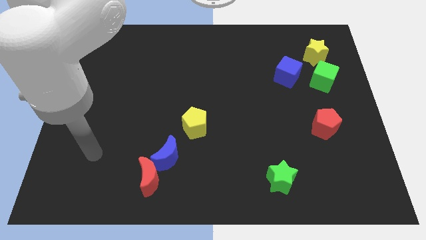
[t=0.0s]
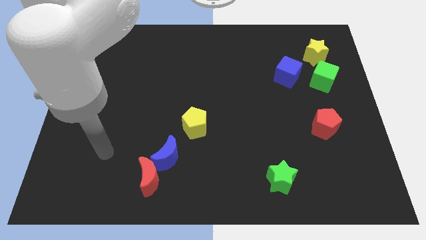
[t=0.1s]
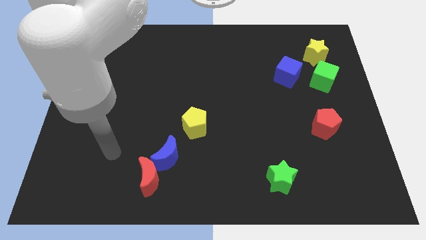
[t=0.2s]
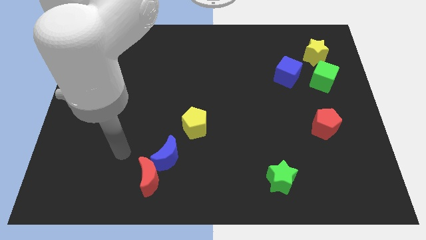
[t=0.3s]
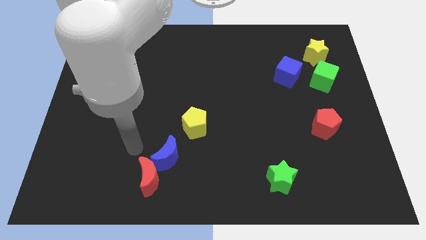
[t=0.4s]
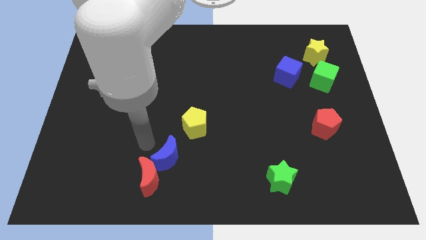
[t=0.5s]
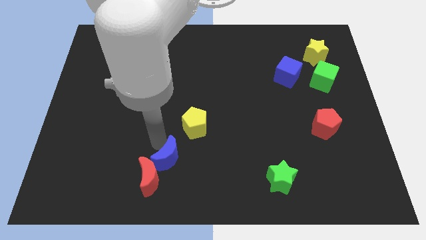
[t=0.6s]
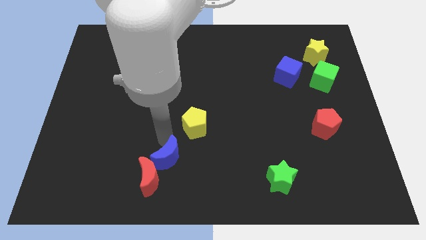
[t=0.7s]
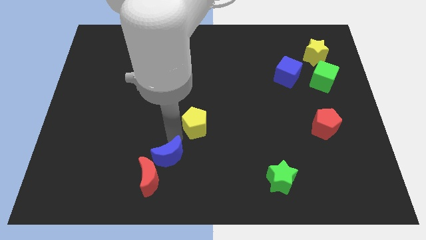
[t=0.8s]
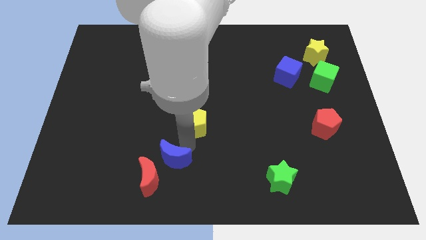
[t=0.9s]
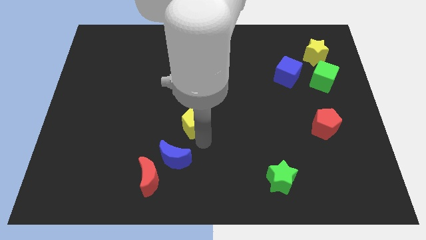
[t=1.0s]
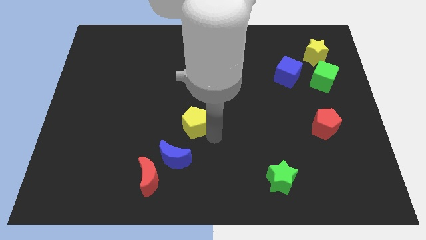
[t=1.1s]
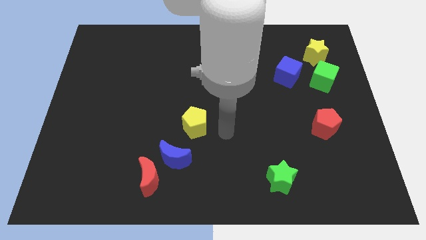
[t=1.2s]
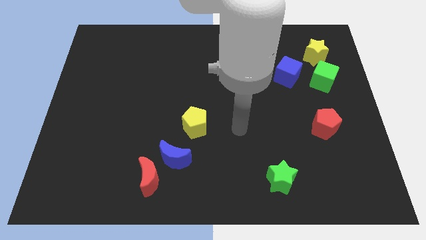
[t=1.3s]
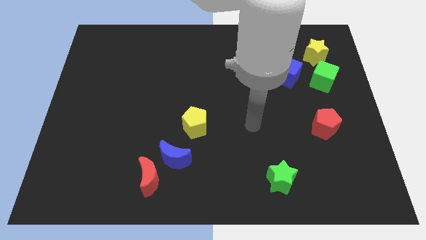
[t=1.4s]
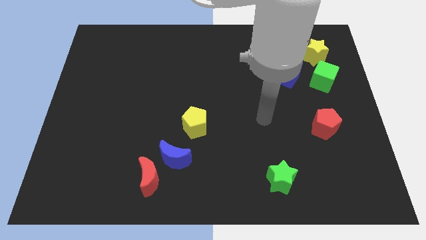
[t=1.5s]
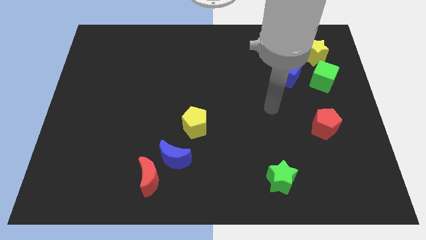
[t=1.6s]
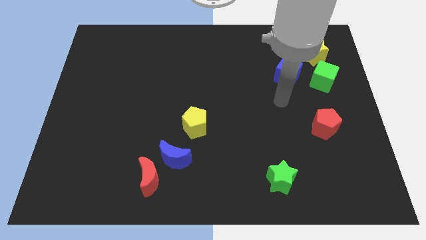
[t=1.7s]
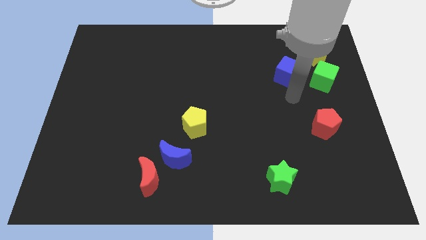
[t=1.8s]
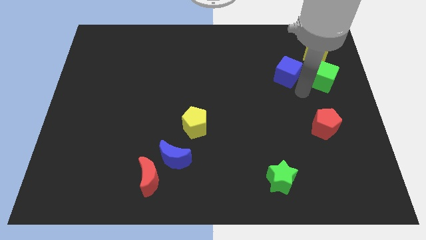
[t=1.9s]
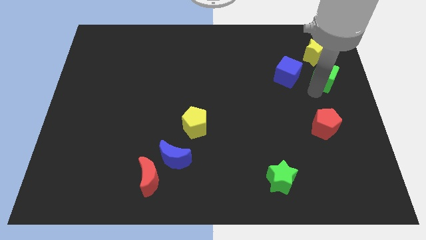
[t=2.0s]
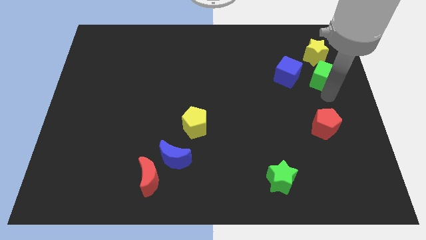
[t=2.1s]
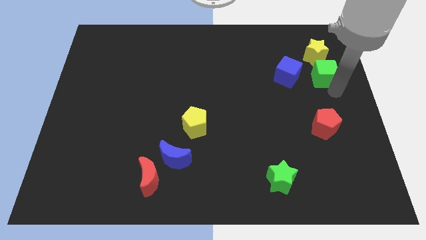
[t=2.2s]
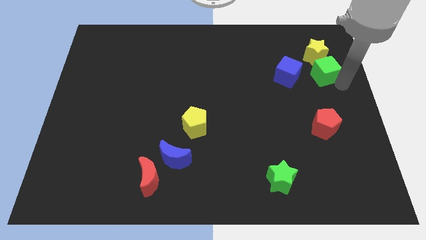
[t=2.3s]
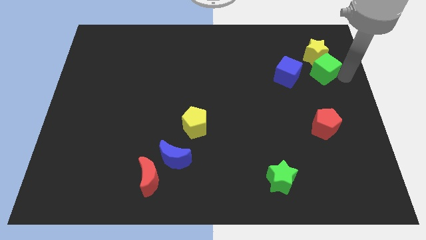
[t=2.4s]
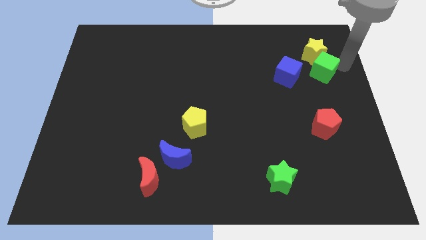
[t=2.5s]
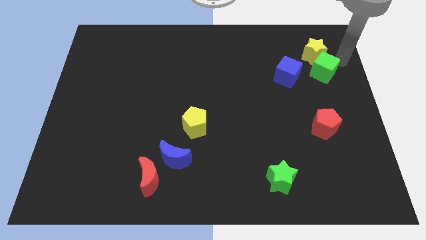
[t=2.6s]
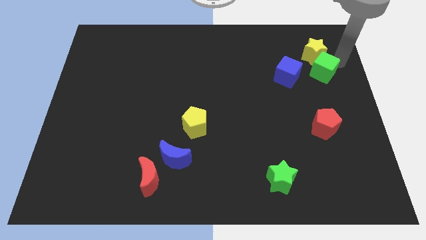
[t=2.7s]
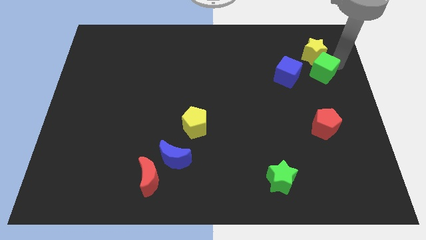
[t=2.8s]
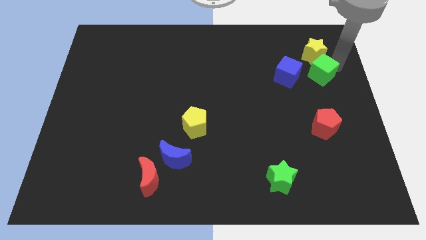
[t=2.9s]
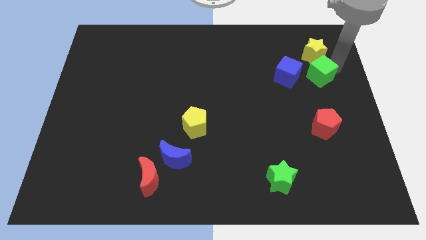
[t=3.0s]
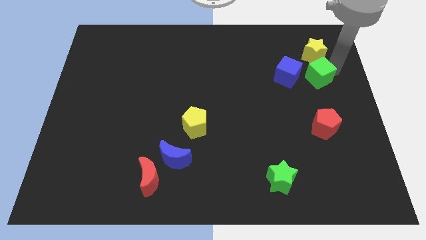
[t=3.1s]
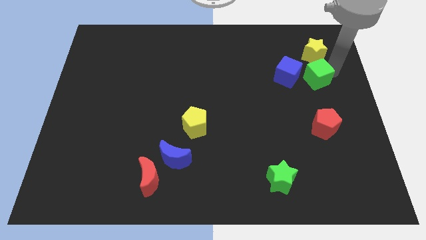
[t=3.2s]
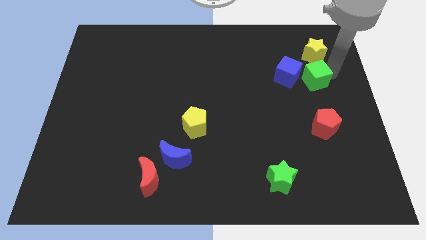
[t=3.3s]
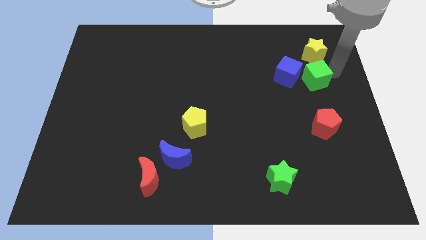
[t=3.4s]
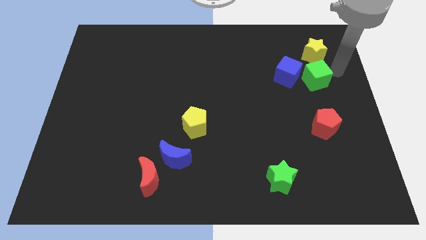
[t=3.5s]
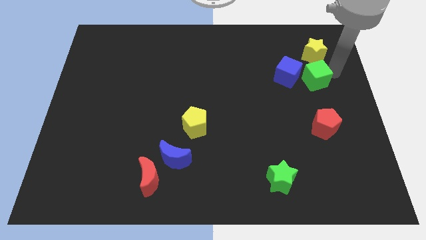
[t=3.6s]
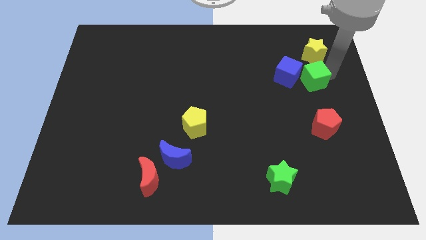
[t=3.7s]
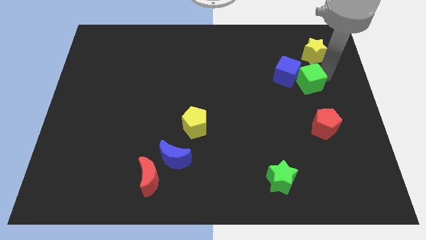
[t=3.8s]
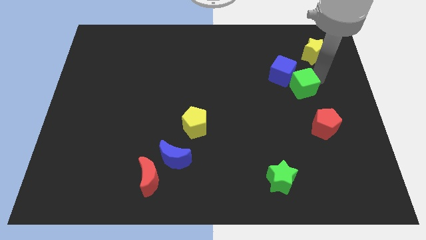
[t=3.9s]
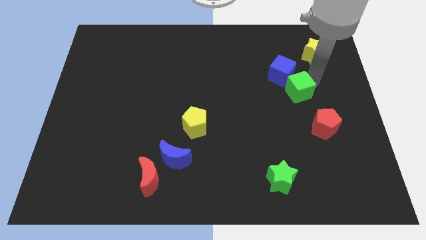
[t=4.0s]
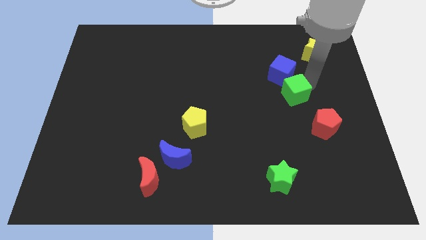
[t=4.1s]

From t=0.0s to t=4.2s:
push the green cube left a little

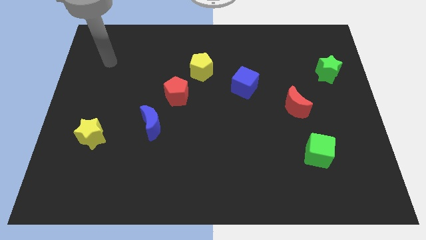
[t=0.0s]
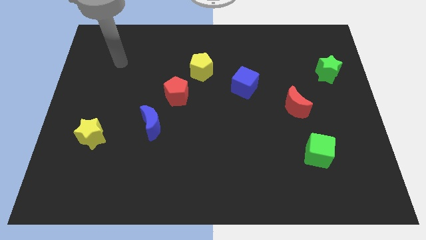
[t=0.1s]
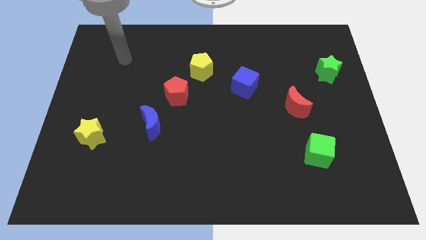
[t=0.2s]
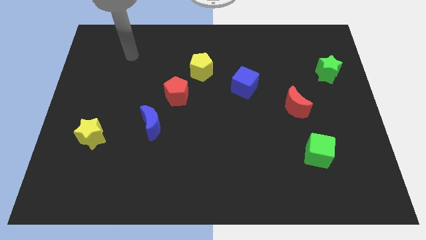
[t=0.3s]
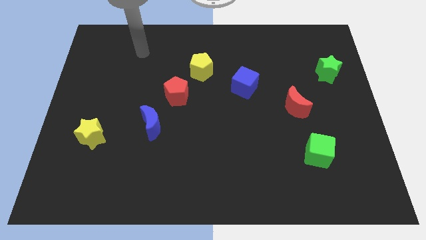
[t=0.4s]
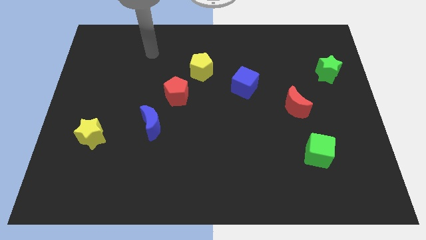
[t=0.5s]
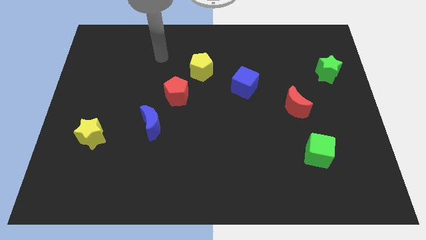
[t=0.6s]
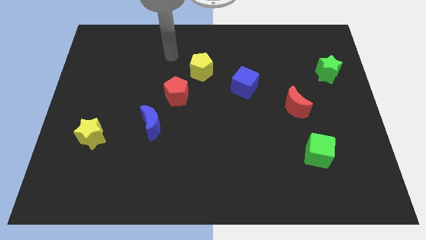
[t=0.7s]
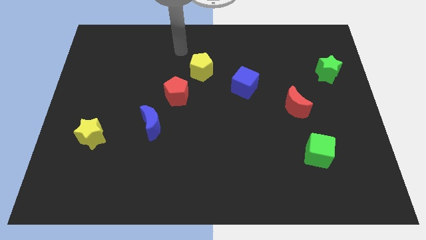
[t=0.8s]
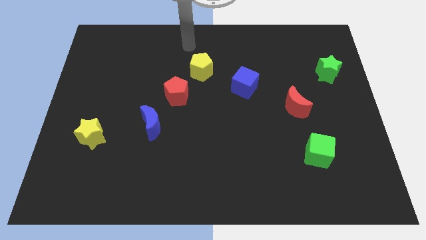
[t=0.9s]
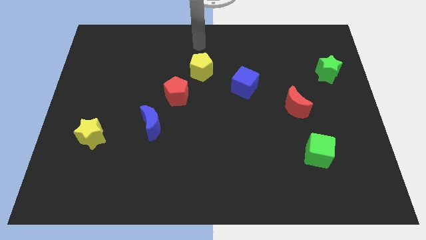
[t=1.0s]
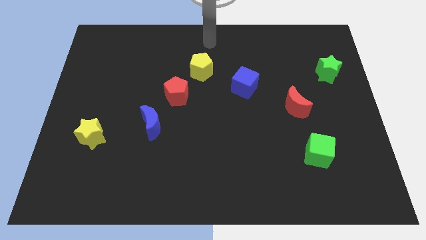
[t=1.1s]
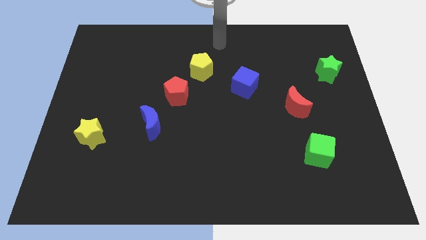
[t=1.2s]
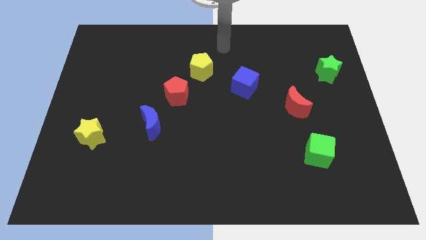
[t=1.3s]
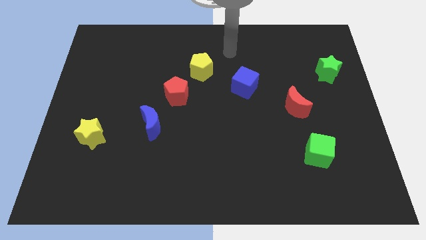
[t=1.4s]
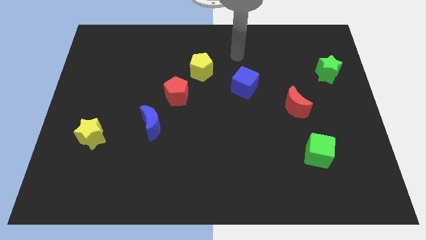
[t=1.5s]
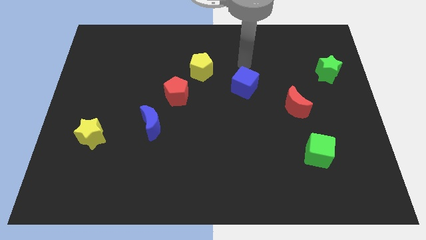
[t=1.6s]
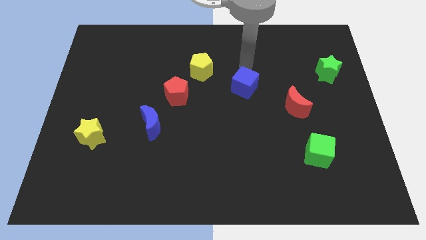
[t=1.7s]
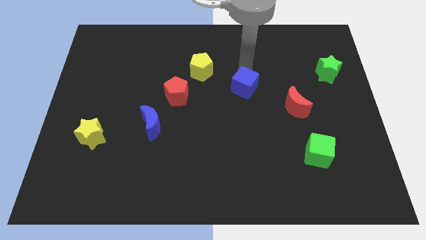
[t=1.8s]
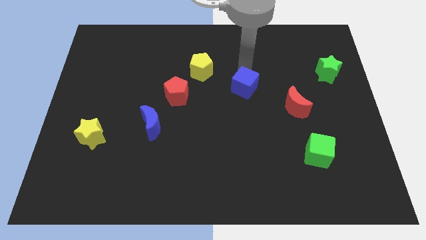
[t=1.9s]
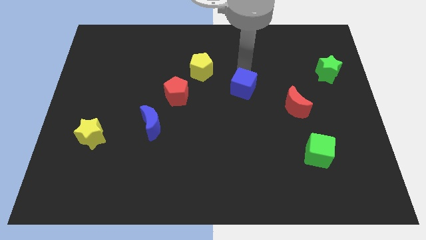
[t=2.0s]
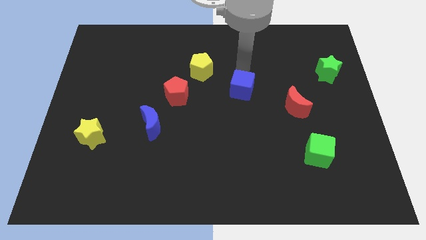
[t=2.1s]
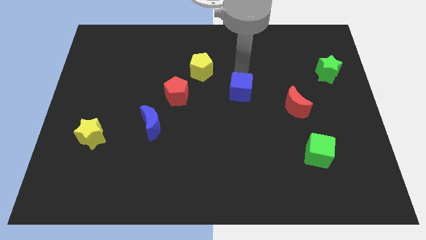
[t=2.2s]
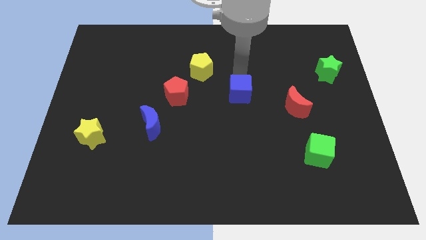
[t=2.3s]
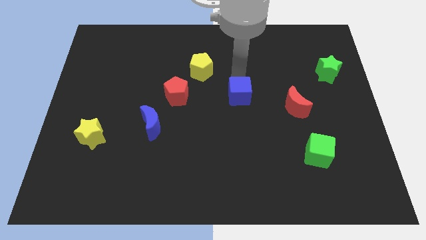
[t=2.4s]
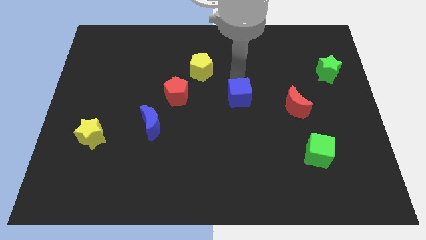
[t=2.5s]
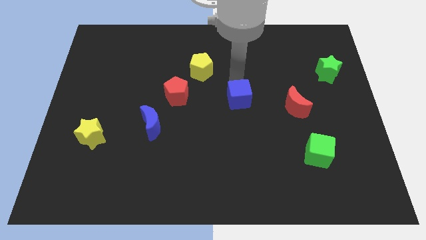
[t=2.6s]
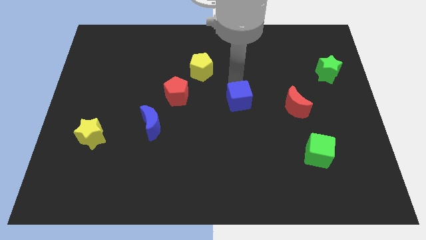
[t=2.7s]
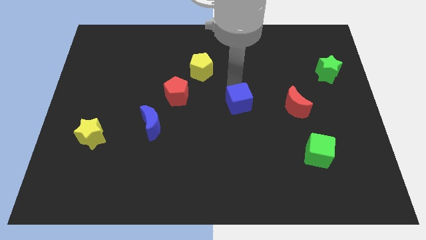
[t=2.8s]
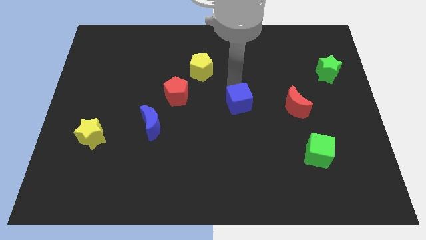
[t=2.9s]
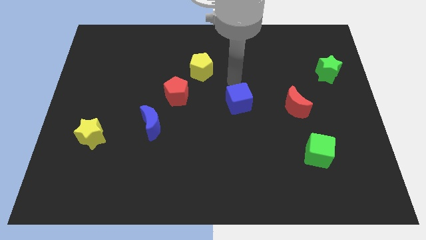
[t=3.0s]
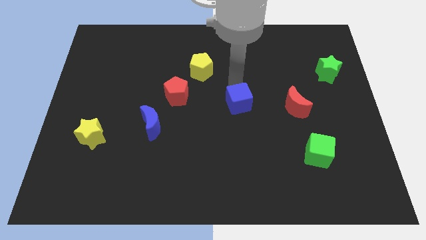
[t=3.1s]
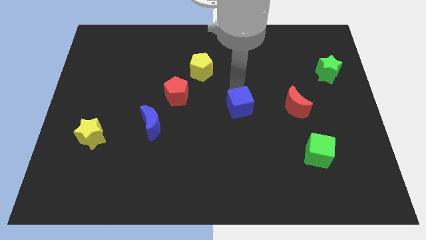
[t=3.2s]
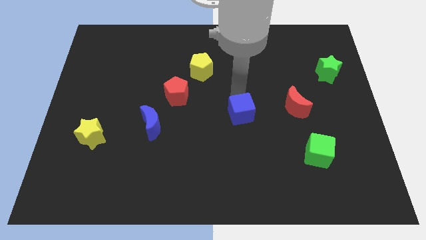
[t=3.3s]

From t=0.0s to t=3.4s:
slightly push the blue cube downwards

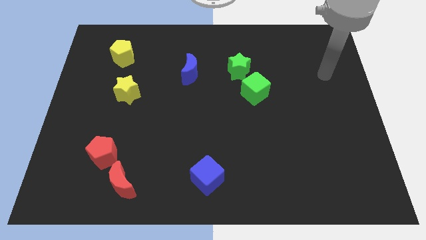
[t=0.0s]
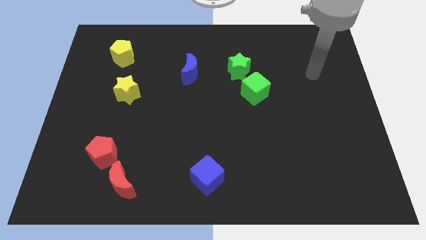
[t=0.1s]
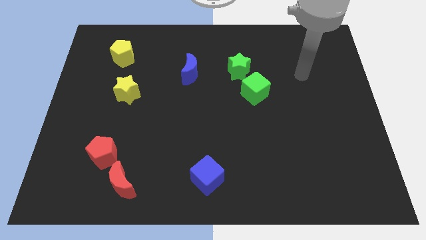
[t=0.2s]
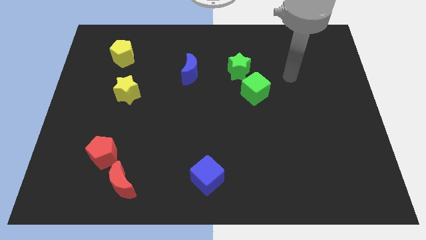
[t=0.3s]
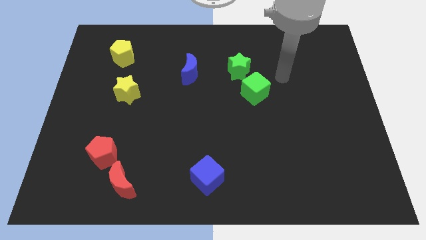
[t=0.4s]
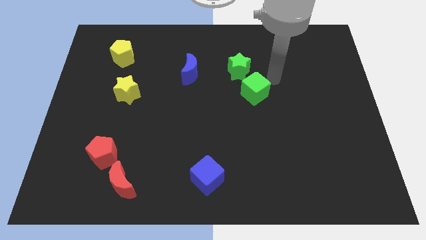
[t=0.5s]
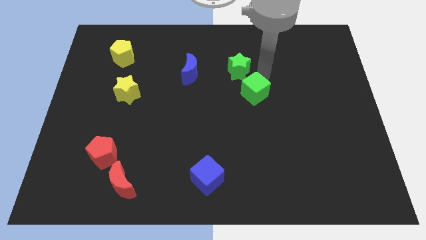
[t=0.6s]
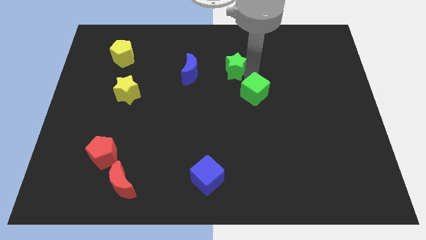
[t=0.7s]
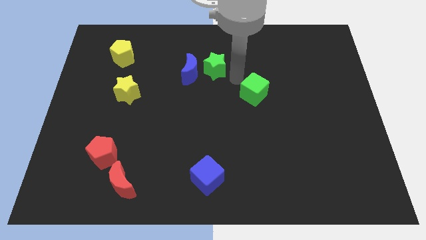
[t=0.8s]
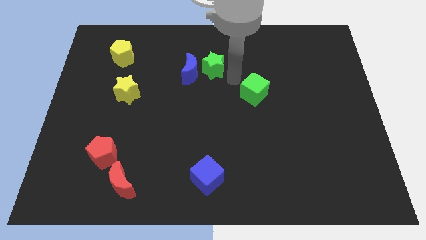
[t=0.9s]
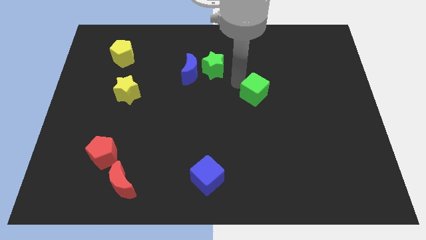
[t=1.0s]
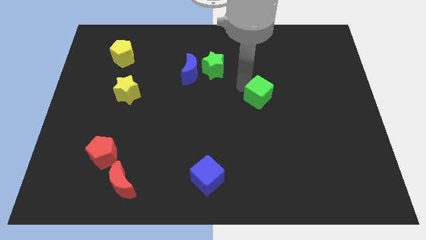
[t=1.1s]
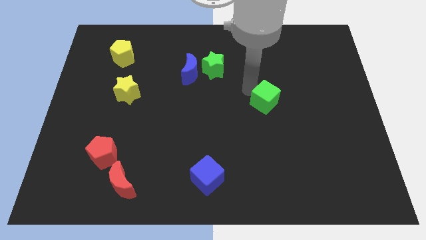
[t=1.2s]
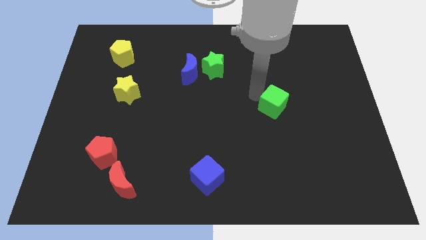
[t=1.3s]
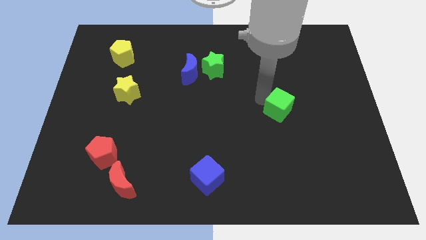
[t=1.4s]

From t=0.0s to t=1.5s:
push the green cube downwards and then right a little
